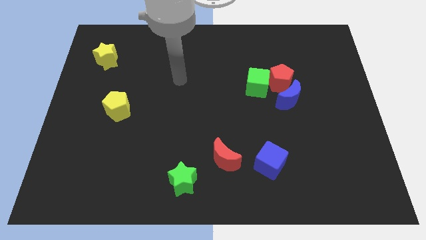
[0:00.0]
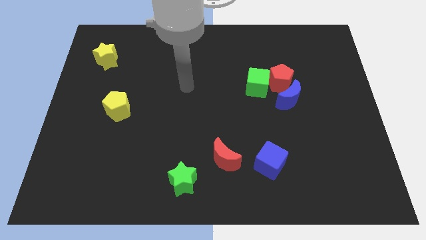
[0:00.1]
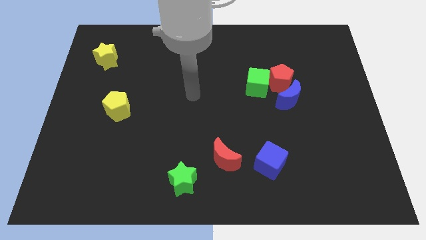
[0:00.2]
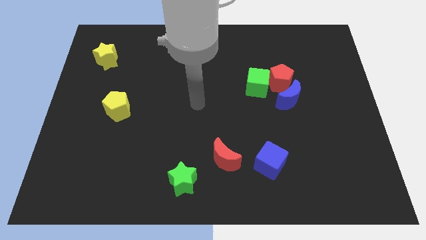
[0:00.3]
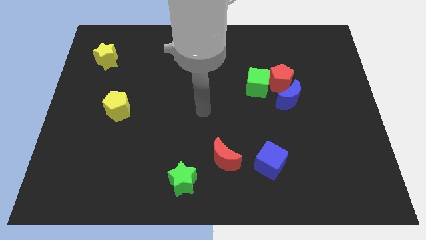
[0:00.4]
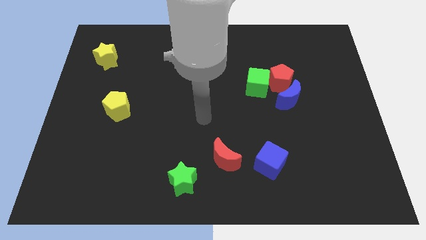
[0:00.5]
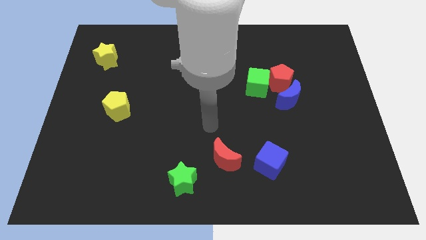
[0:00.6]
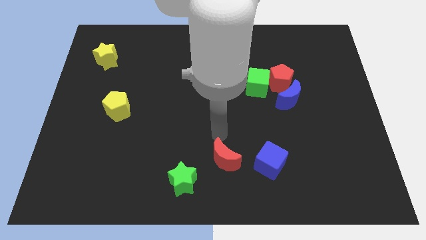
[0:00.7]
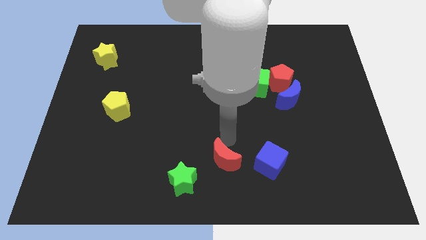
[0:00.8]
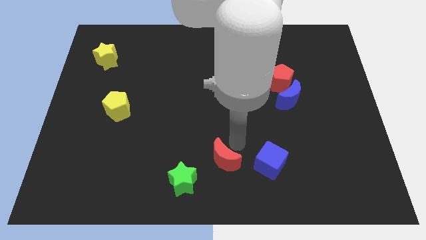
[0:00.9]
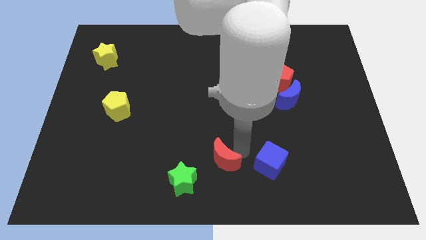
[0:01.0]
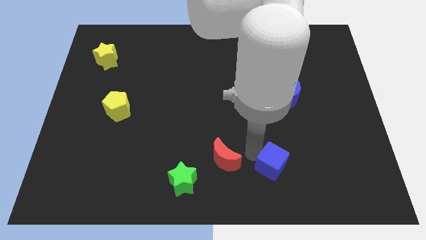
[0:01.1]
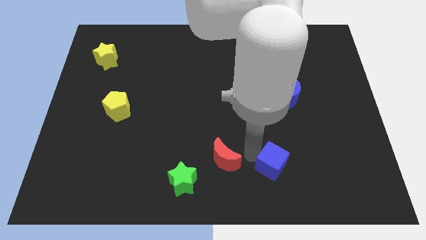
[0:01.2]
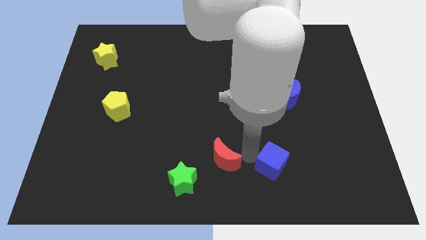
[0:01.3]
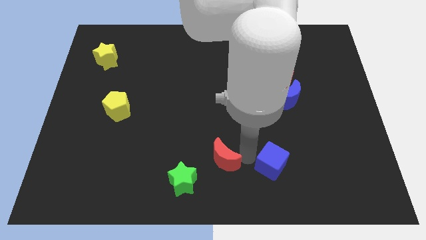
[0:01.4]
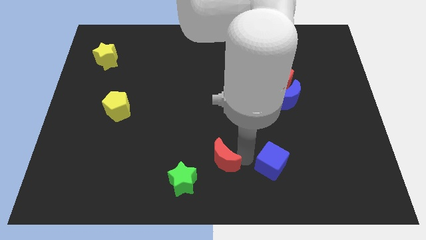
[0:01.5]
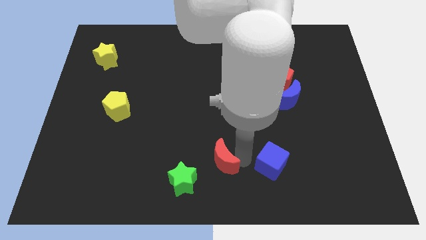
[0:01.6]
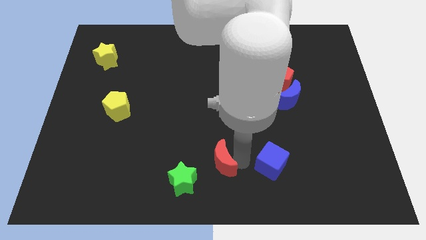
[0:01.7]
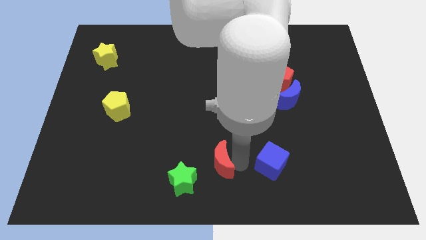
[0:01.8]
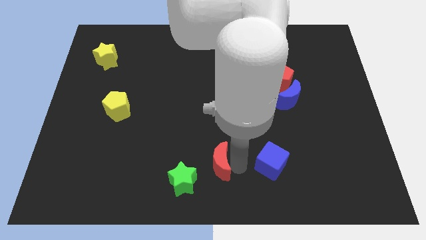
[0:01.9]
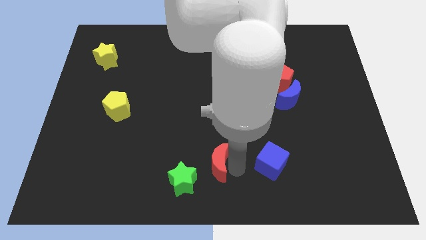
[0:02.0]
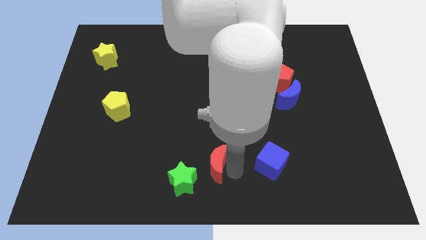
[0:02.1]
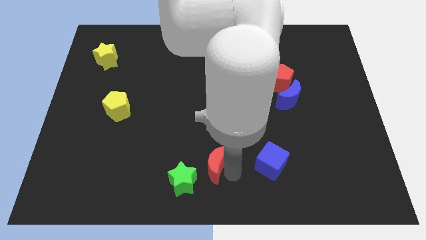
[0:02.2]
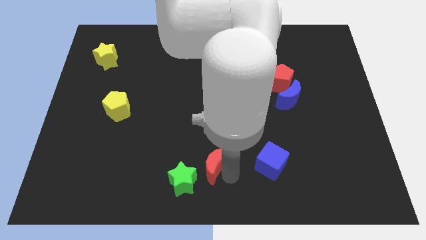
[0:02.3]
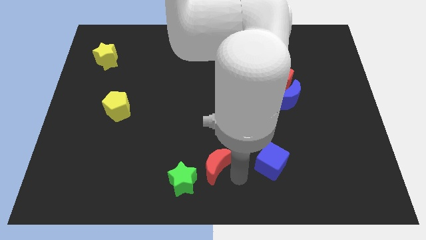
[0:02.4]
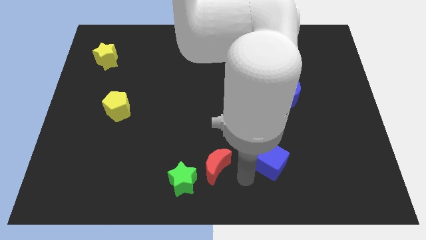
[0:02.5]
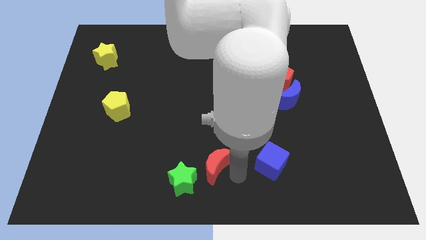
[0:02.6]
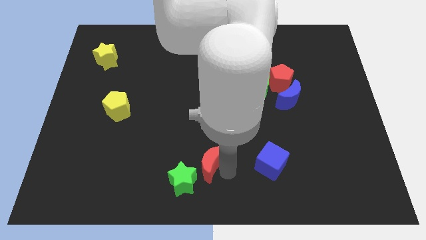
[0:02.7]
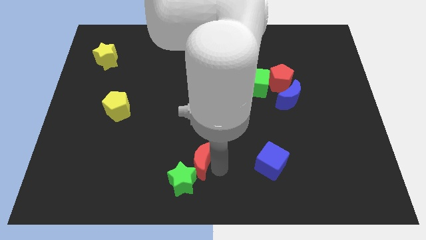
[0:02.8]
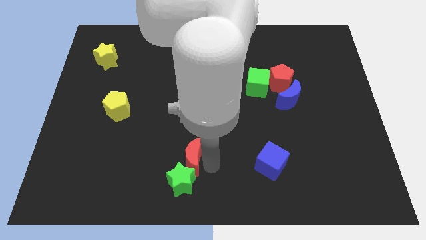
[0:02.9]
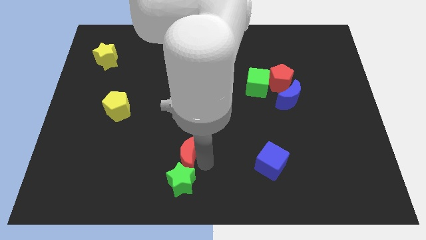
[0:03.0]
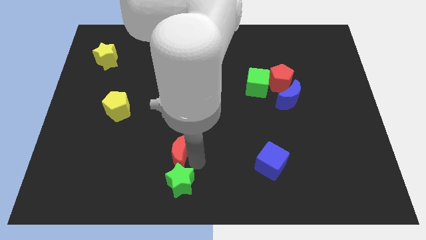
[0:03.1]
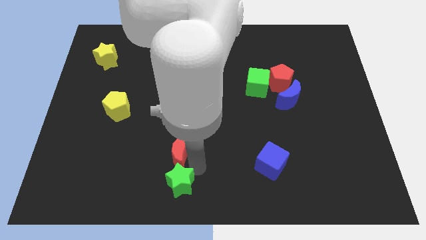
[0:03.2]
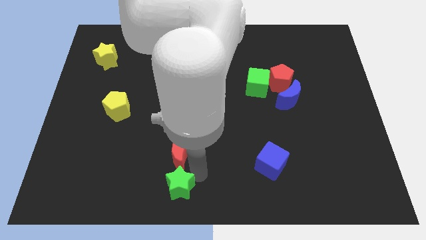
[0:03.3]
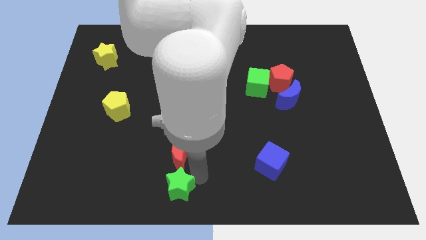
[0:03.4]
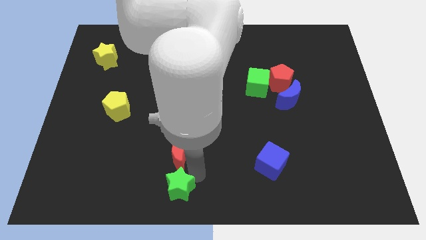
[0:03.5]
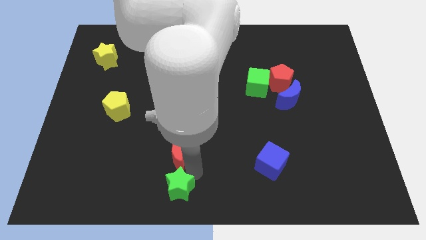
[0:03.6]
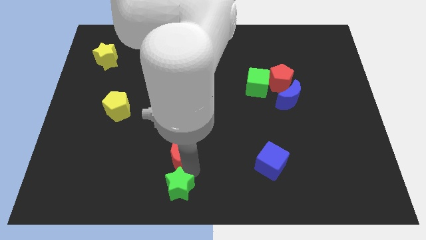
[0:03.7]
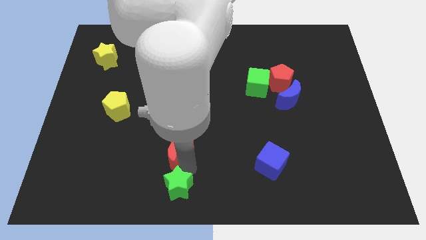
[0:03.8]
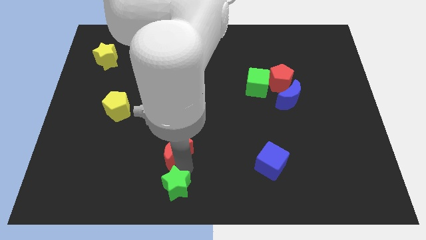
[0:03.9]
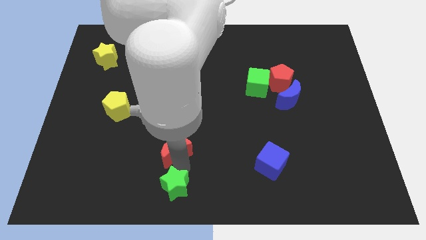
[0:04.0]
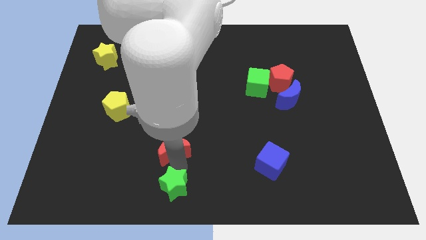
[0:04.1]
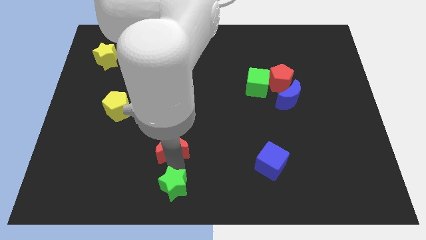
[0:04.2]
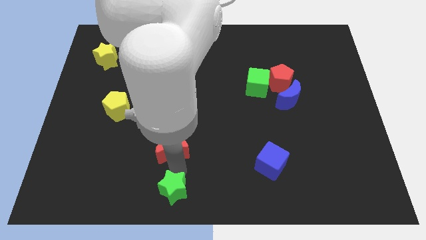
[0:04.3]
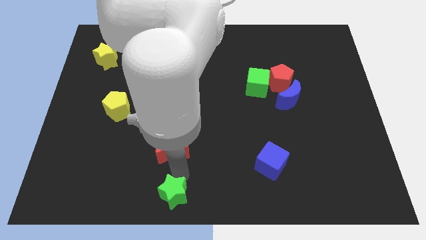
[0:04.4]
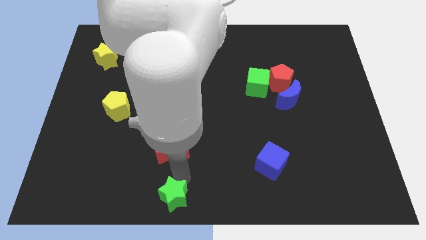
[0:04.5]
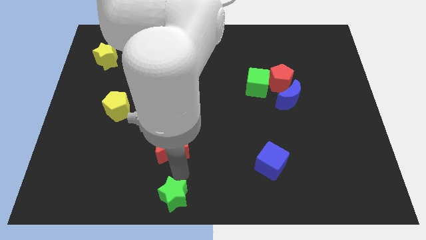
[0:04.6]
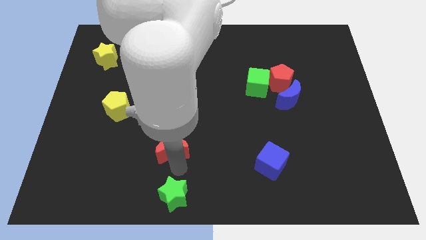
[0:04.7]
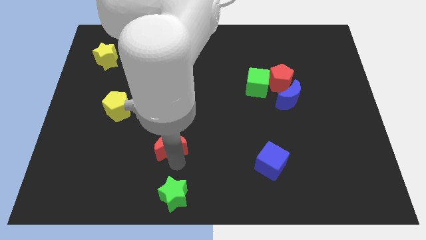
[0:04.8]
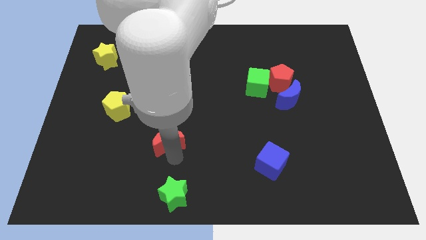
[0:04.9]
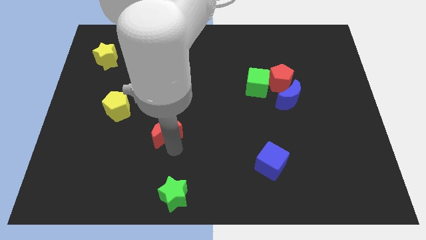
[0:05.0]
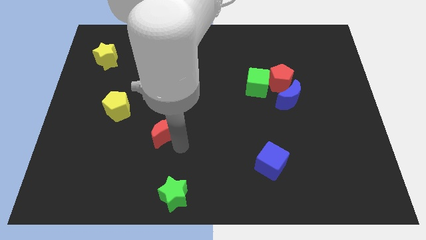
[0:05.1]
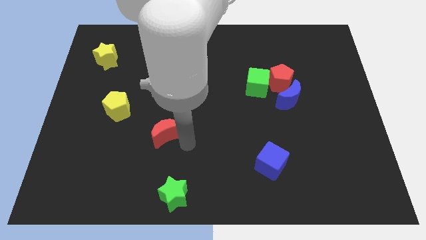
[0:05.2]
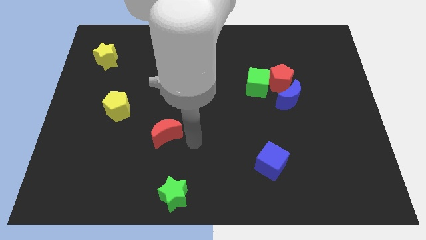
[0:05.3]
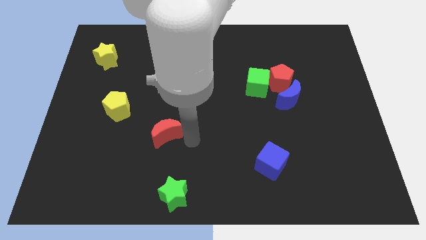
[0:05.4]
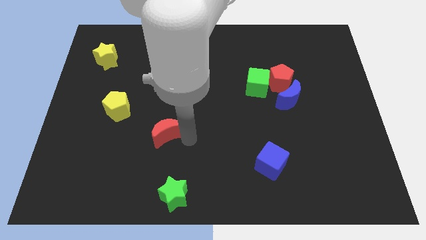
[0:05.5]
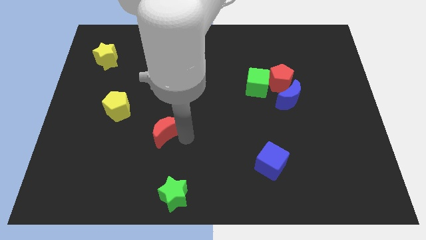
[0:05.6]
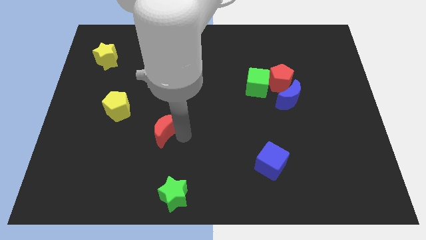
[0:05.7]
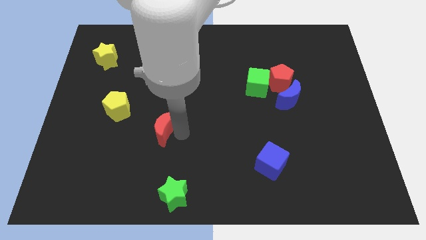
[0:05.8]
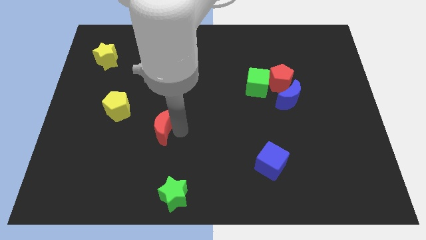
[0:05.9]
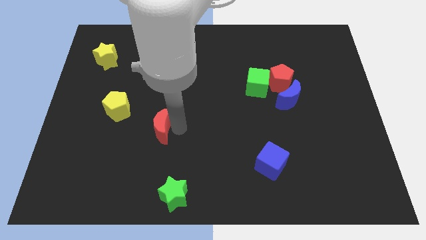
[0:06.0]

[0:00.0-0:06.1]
put the red moon to the bottom right side of the yellow pentagon
